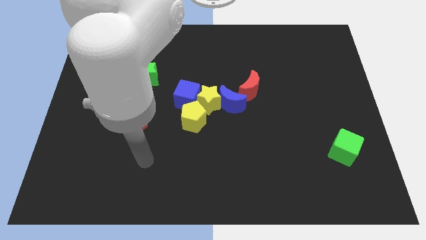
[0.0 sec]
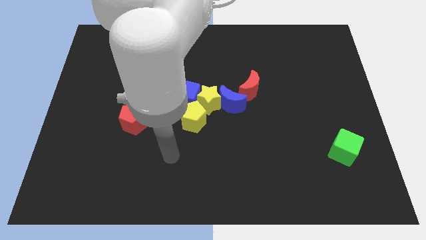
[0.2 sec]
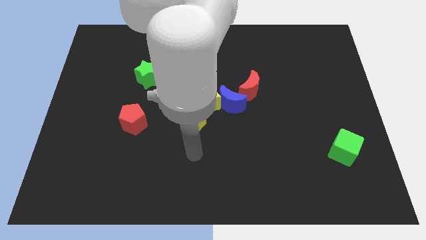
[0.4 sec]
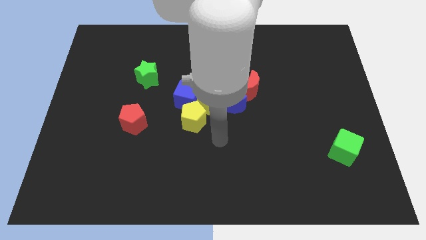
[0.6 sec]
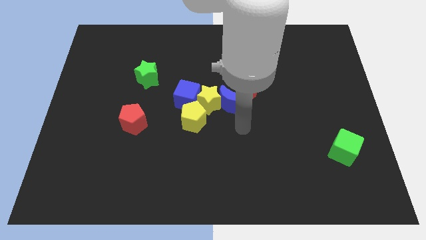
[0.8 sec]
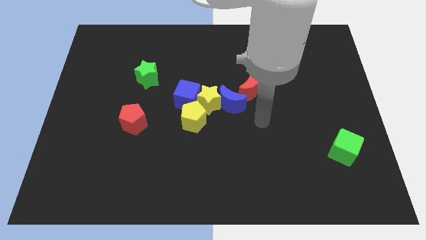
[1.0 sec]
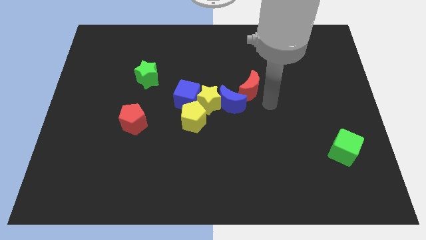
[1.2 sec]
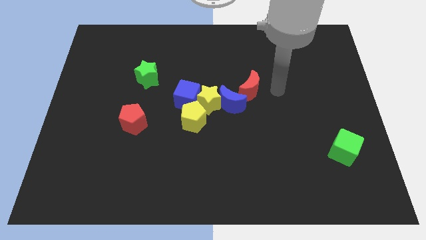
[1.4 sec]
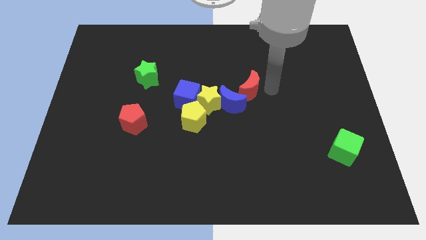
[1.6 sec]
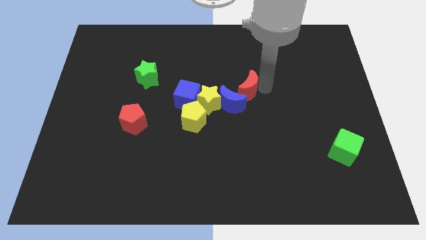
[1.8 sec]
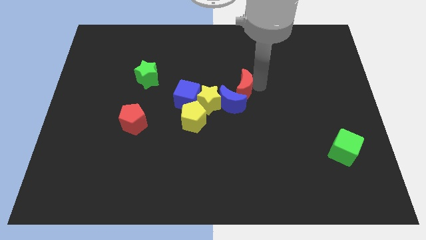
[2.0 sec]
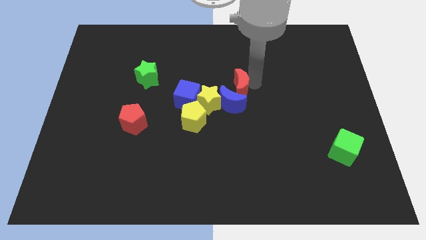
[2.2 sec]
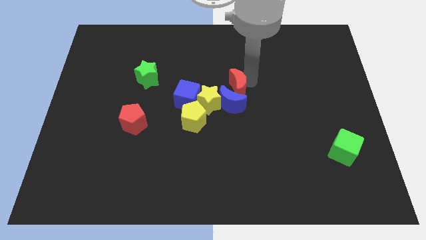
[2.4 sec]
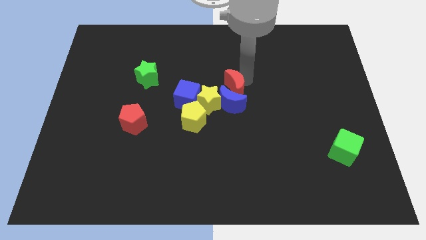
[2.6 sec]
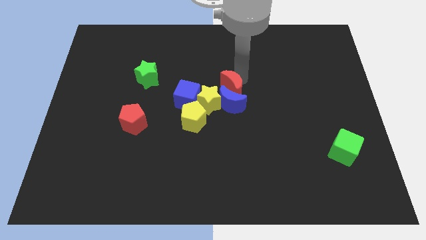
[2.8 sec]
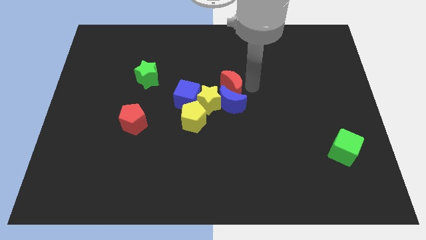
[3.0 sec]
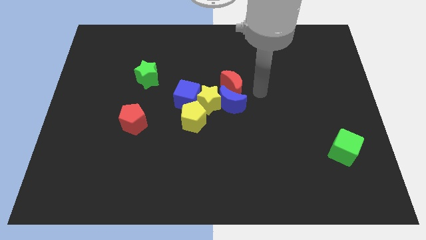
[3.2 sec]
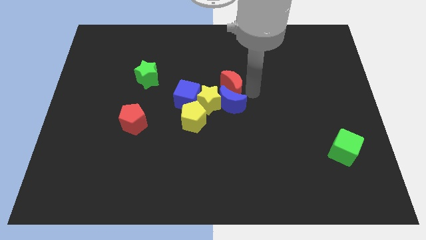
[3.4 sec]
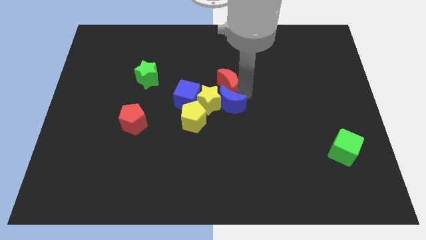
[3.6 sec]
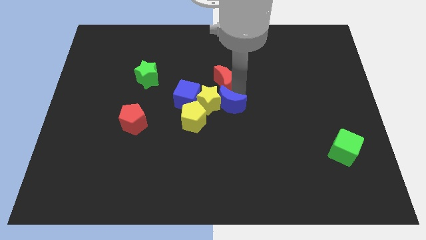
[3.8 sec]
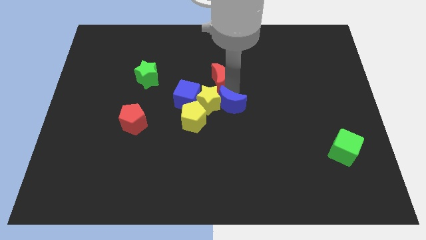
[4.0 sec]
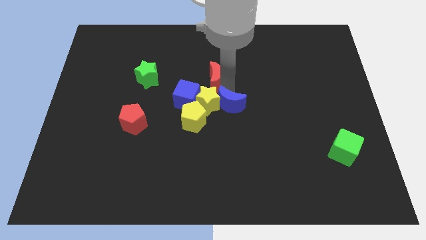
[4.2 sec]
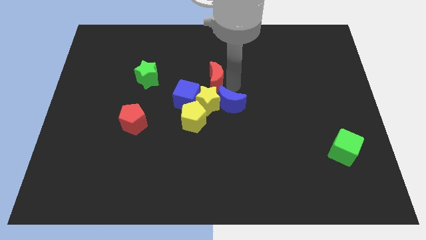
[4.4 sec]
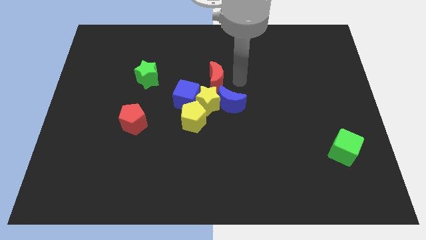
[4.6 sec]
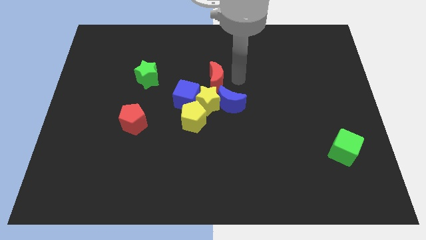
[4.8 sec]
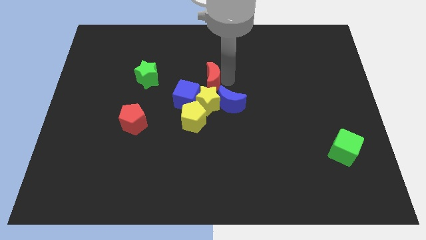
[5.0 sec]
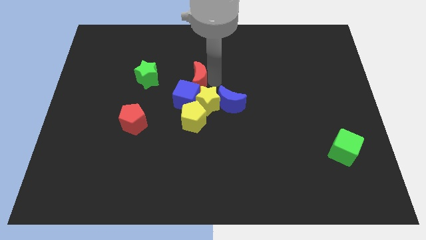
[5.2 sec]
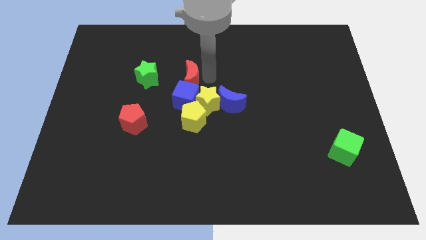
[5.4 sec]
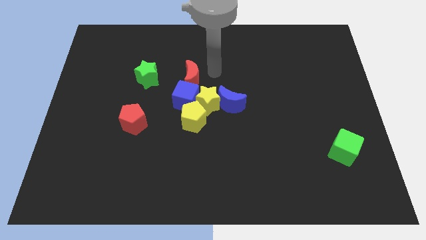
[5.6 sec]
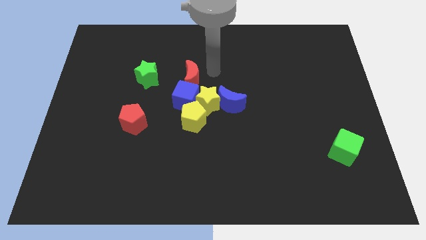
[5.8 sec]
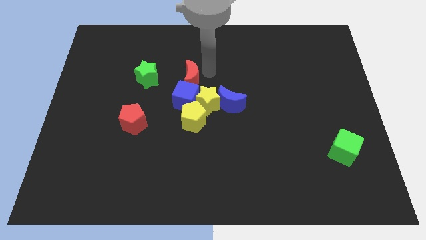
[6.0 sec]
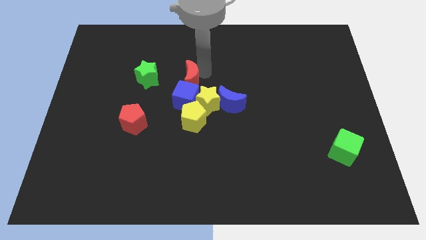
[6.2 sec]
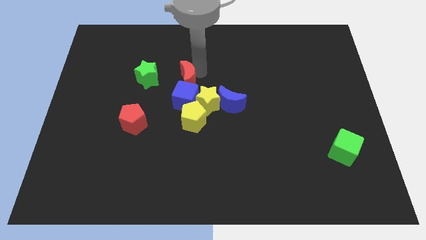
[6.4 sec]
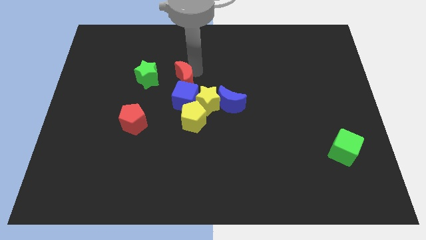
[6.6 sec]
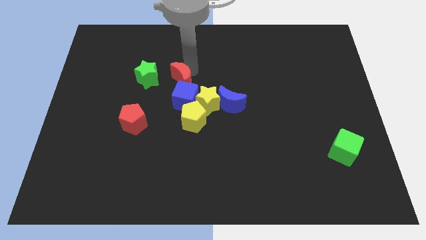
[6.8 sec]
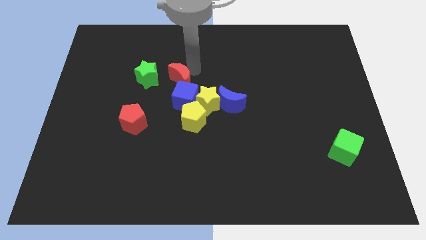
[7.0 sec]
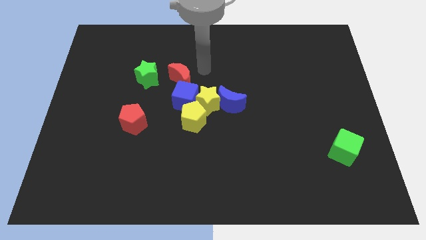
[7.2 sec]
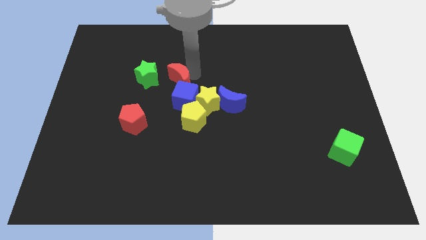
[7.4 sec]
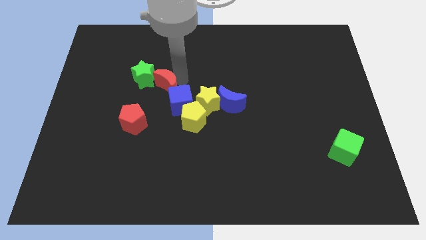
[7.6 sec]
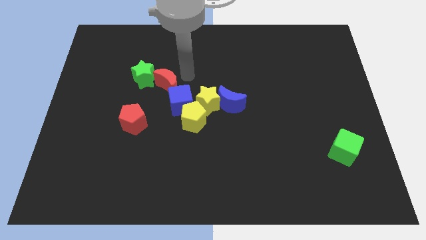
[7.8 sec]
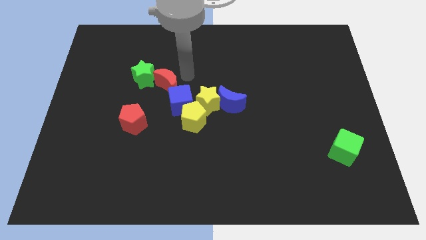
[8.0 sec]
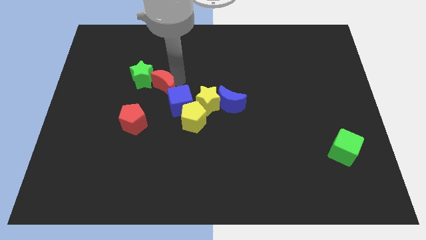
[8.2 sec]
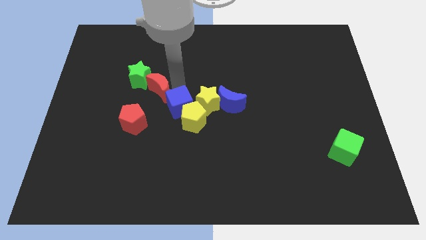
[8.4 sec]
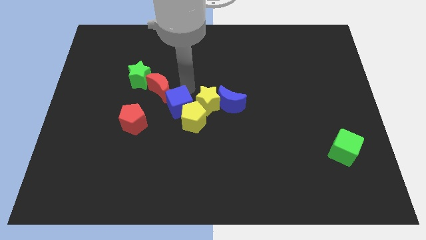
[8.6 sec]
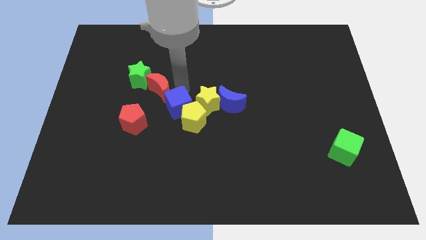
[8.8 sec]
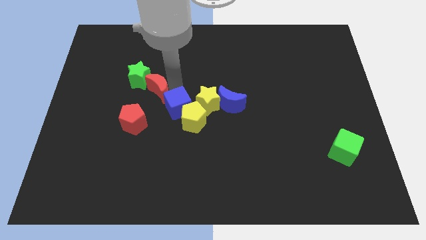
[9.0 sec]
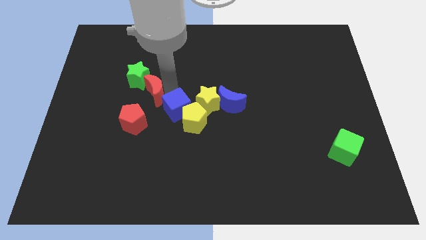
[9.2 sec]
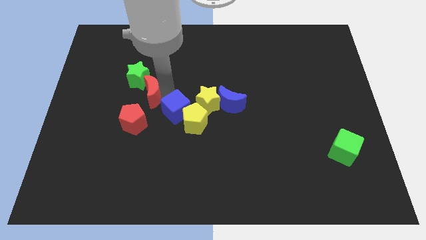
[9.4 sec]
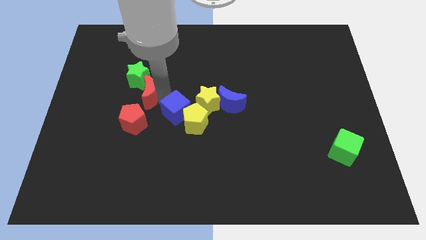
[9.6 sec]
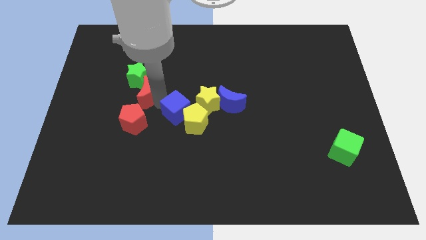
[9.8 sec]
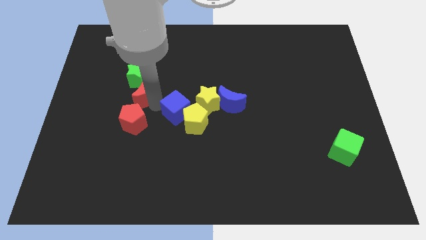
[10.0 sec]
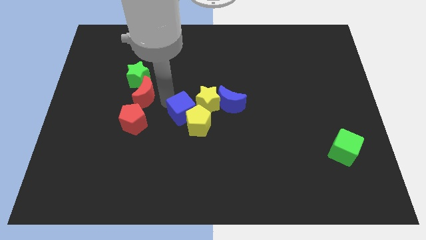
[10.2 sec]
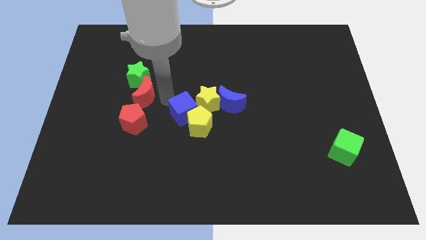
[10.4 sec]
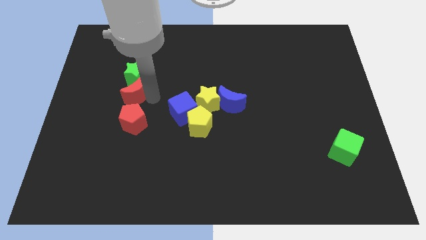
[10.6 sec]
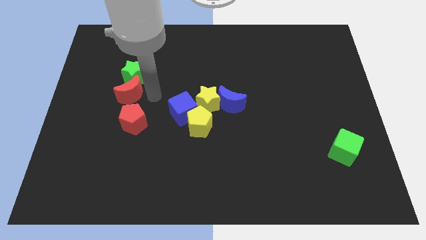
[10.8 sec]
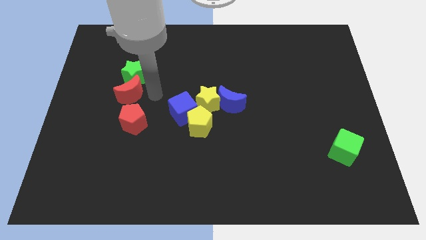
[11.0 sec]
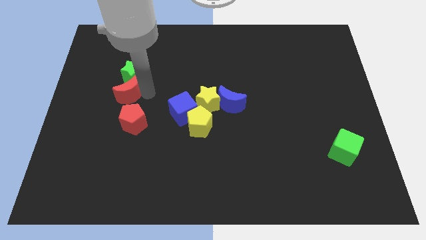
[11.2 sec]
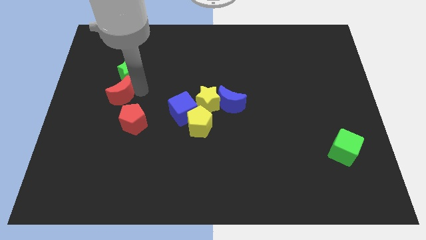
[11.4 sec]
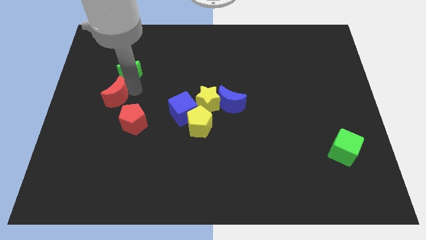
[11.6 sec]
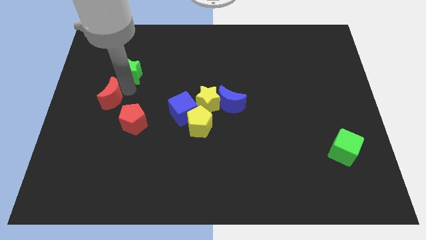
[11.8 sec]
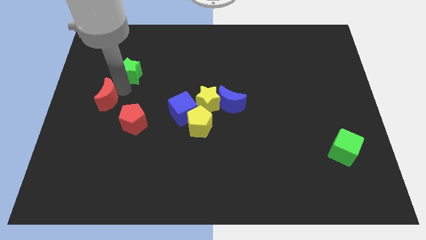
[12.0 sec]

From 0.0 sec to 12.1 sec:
move the red moon to the center left

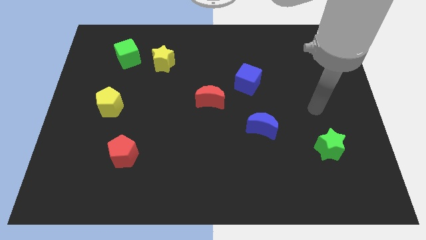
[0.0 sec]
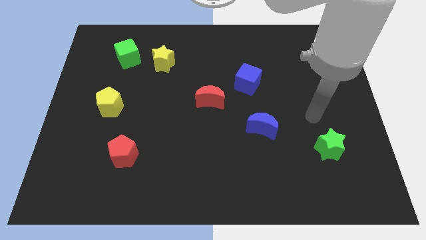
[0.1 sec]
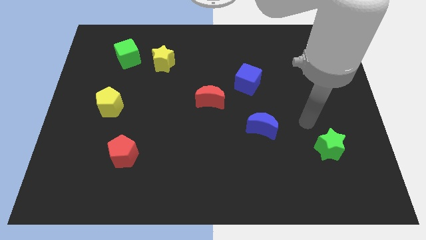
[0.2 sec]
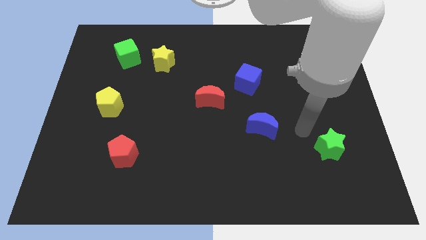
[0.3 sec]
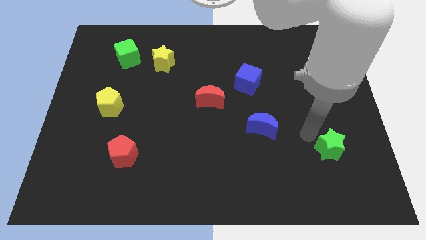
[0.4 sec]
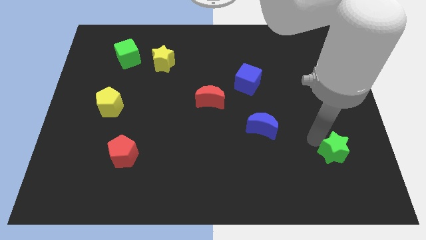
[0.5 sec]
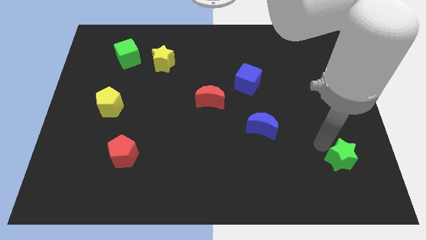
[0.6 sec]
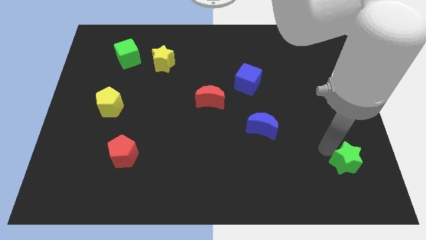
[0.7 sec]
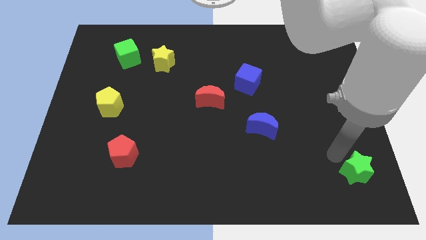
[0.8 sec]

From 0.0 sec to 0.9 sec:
slide the green star to the bottom right corner
